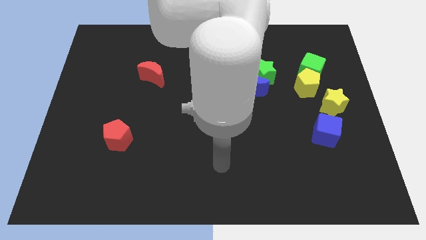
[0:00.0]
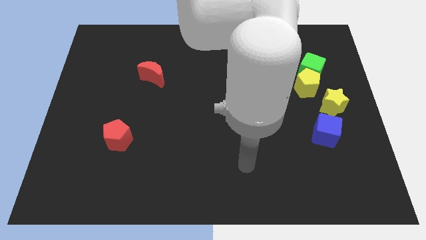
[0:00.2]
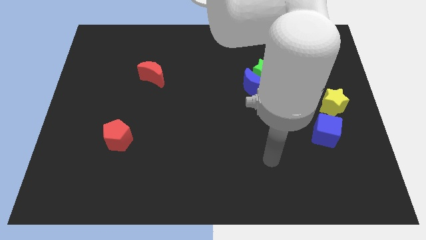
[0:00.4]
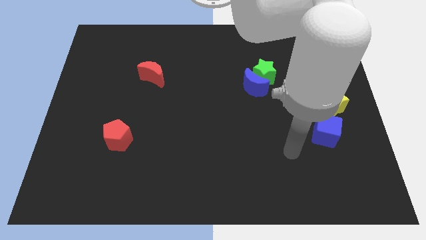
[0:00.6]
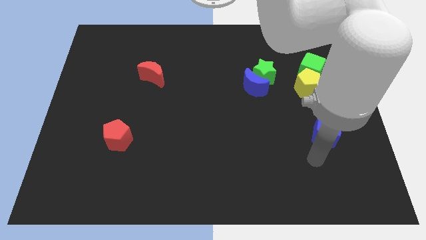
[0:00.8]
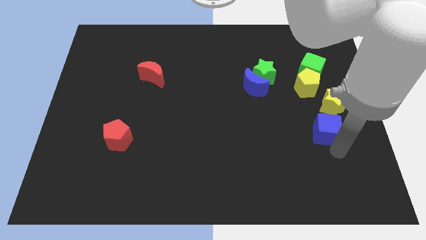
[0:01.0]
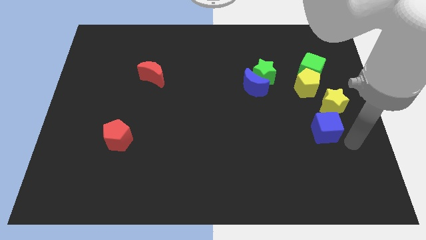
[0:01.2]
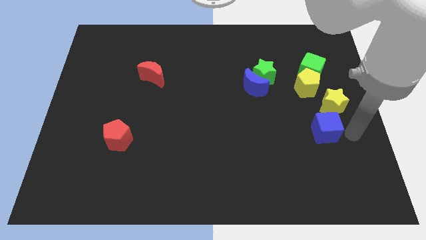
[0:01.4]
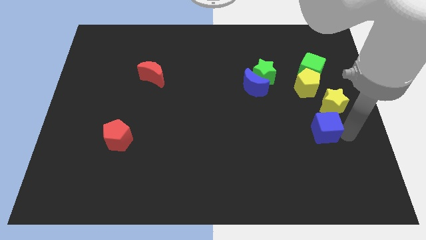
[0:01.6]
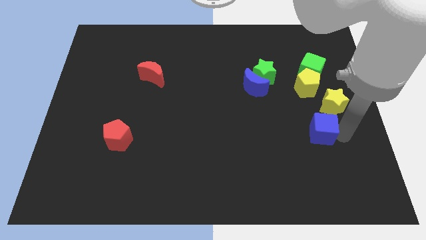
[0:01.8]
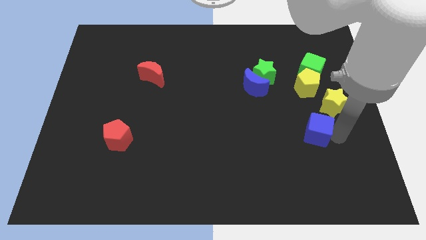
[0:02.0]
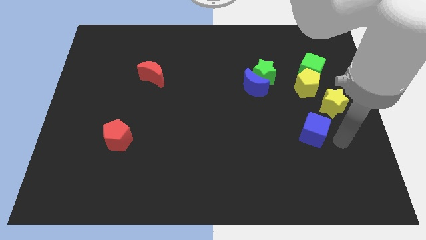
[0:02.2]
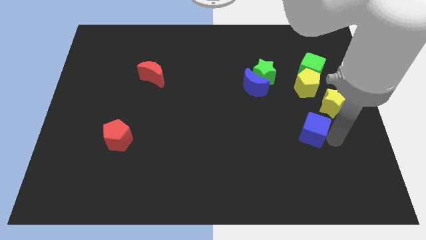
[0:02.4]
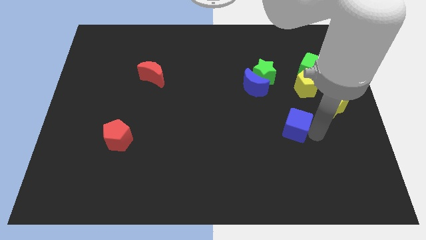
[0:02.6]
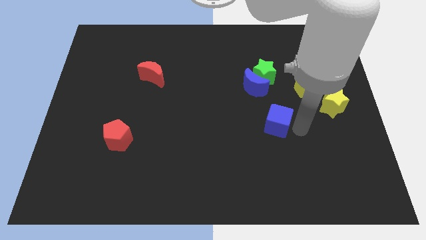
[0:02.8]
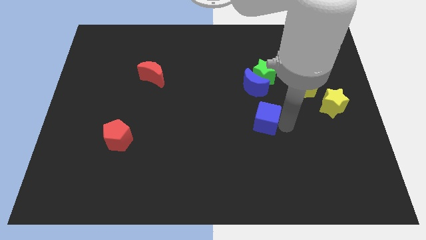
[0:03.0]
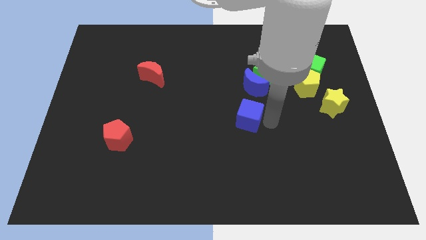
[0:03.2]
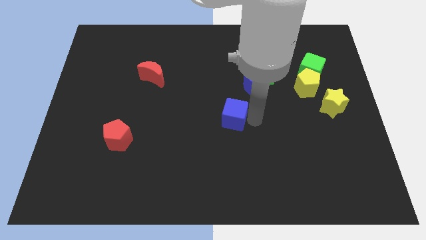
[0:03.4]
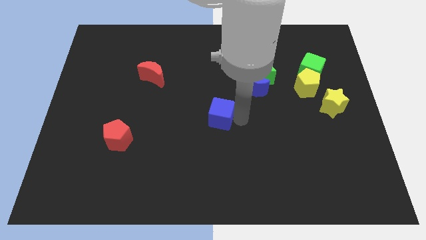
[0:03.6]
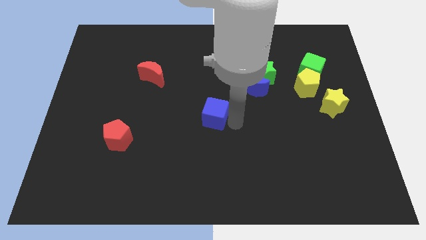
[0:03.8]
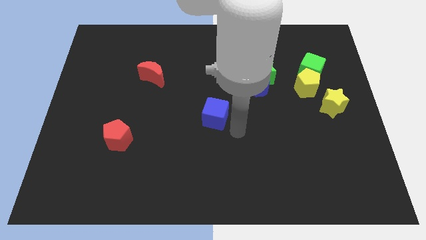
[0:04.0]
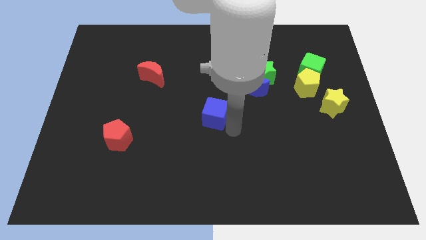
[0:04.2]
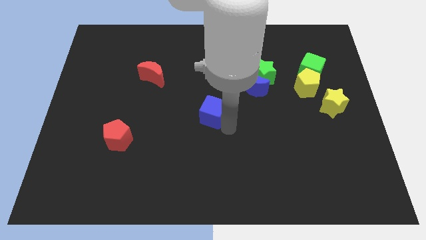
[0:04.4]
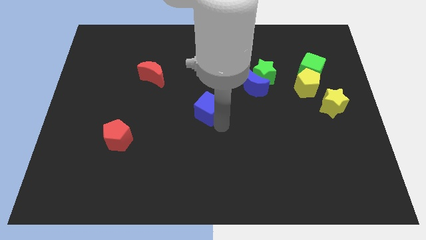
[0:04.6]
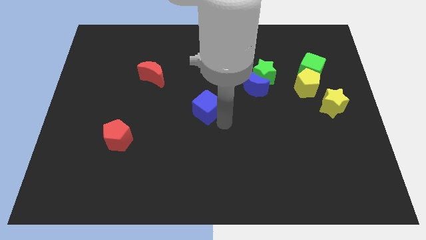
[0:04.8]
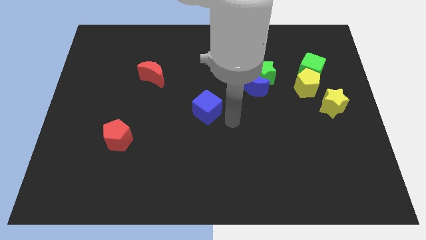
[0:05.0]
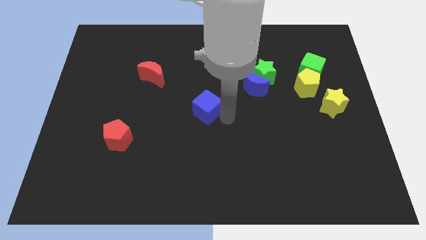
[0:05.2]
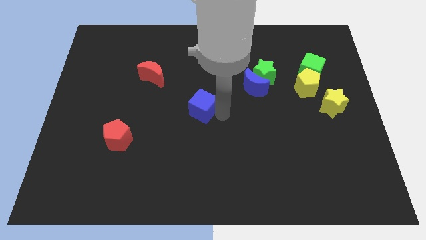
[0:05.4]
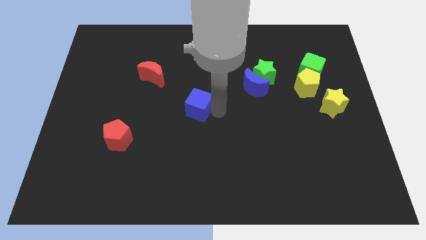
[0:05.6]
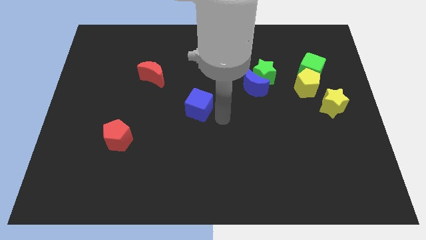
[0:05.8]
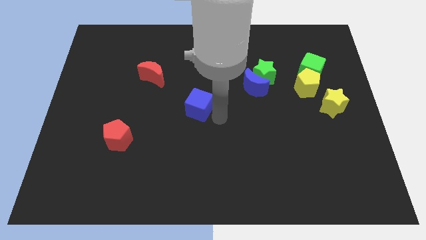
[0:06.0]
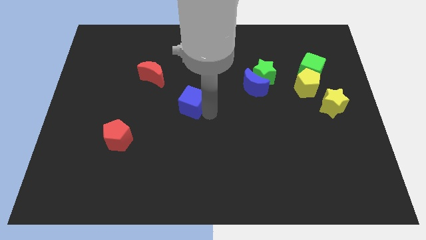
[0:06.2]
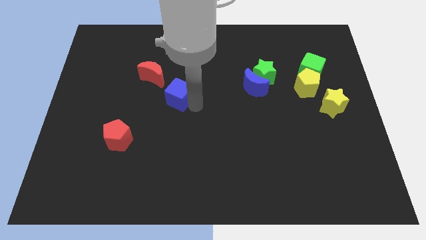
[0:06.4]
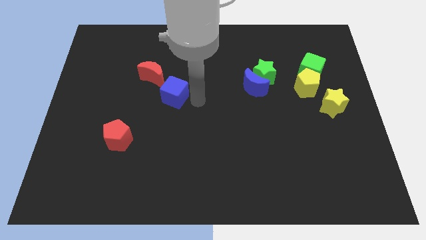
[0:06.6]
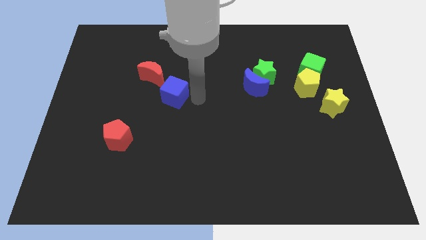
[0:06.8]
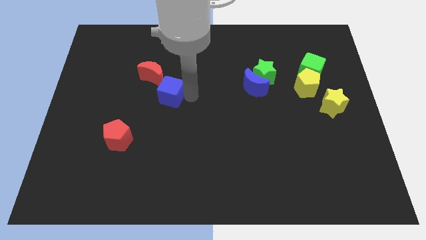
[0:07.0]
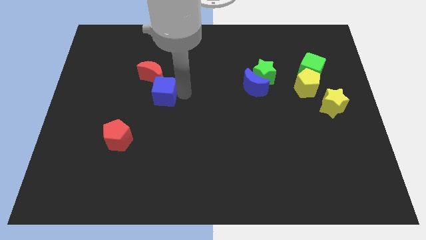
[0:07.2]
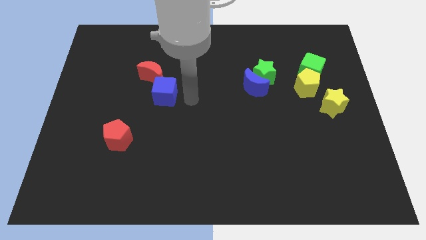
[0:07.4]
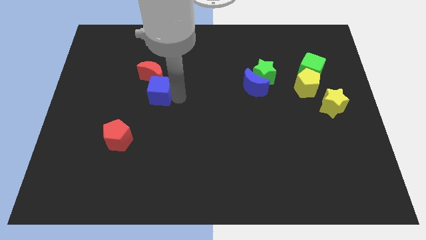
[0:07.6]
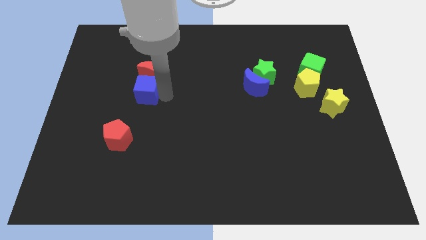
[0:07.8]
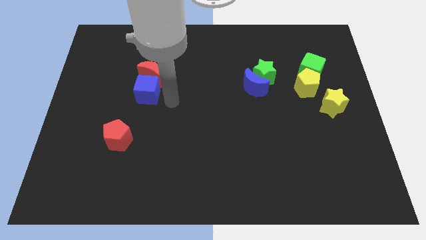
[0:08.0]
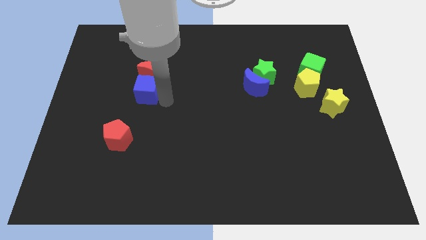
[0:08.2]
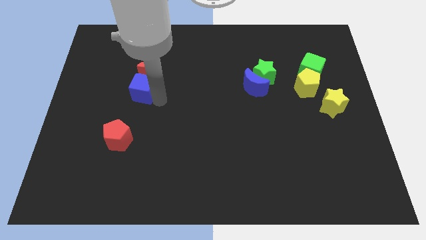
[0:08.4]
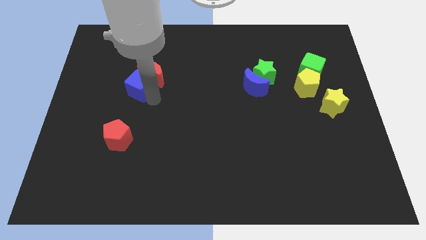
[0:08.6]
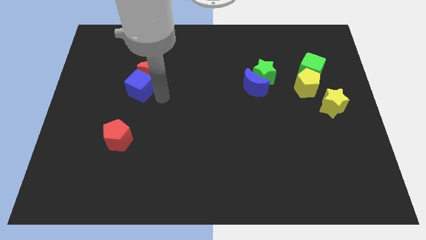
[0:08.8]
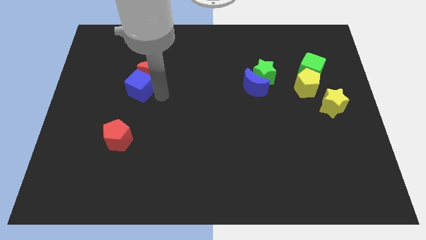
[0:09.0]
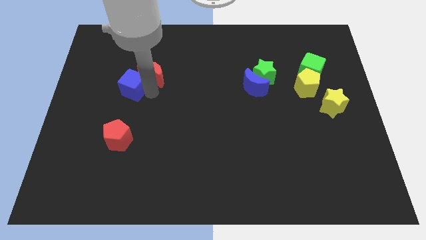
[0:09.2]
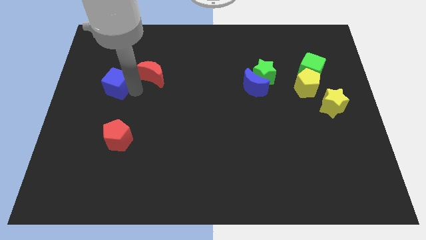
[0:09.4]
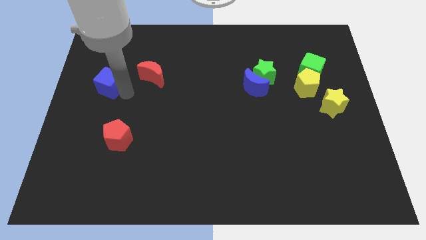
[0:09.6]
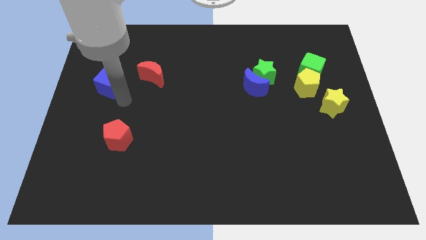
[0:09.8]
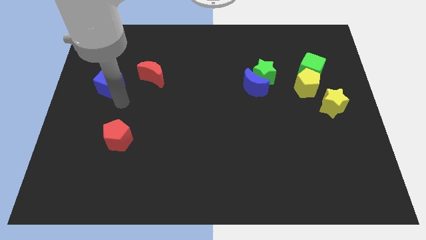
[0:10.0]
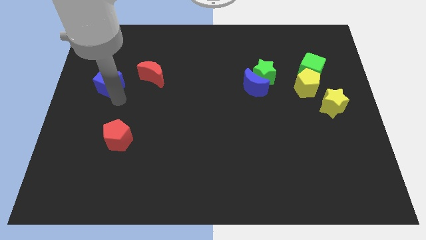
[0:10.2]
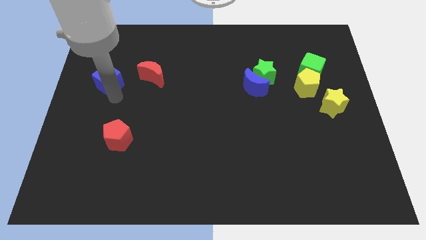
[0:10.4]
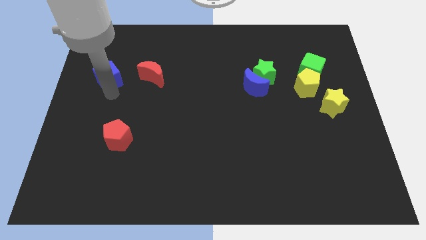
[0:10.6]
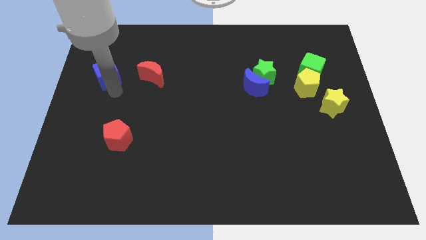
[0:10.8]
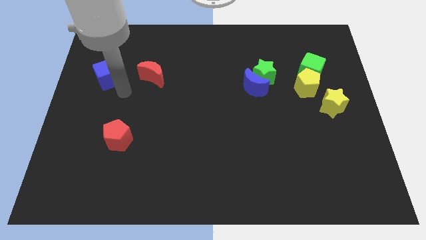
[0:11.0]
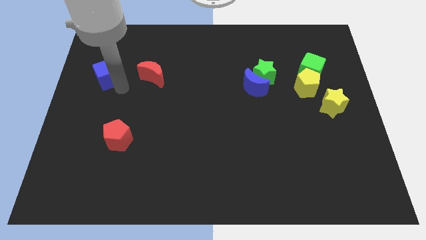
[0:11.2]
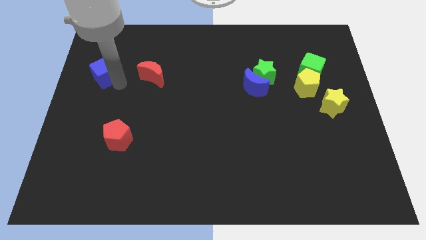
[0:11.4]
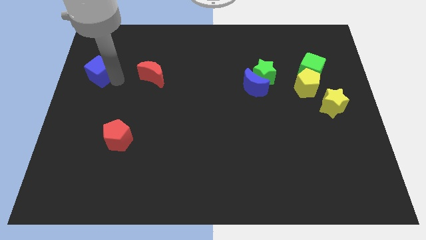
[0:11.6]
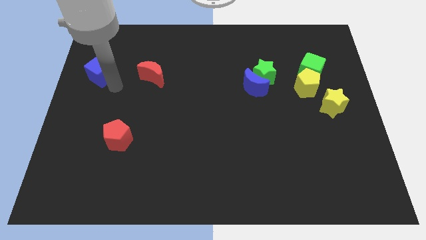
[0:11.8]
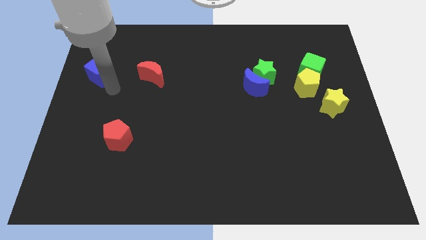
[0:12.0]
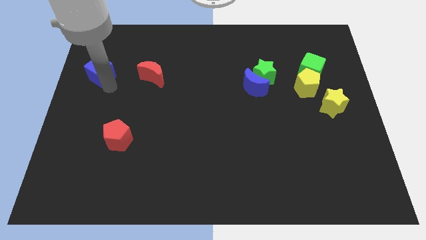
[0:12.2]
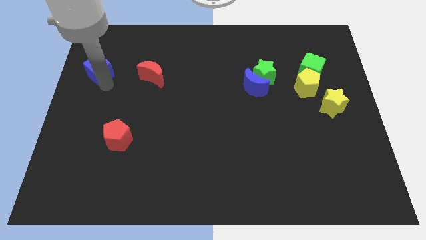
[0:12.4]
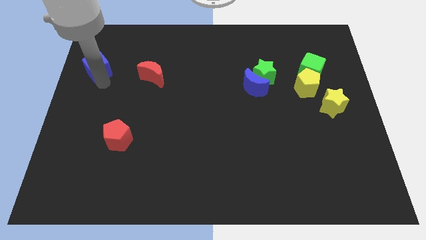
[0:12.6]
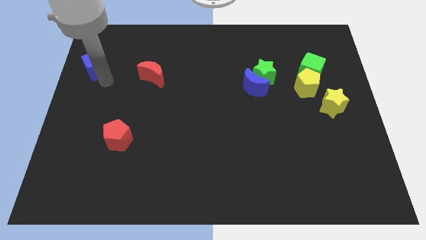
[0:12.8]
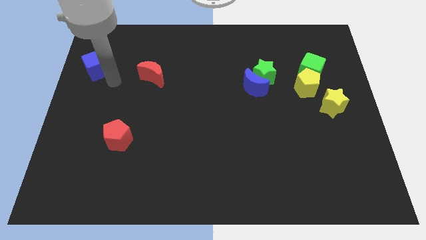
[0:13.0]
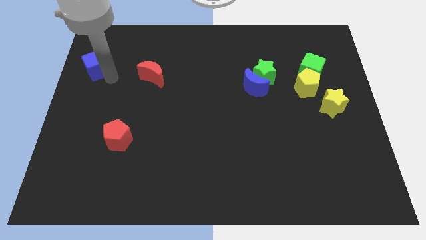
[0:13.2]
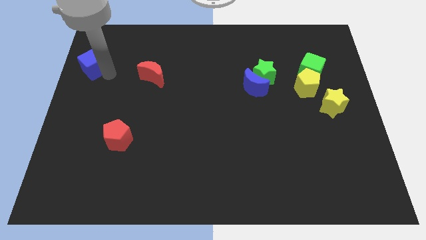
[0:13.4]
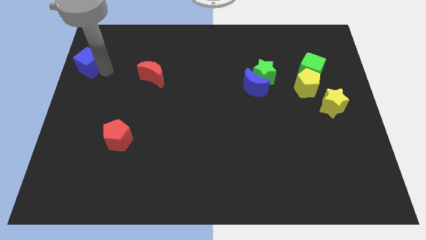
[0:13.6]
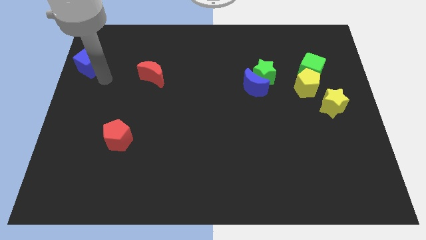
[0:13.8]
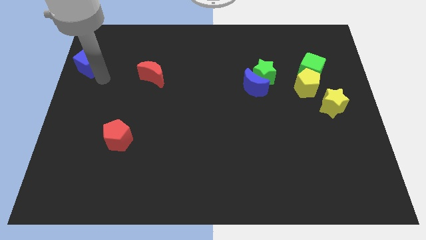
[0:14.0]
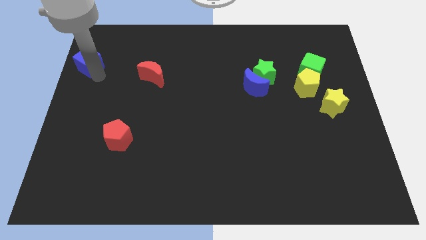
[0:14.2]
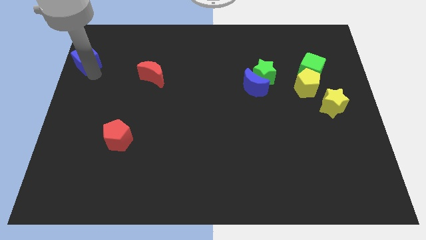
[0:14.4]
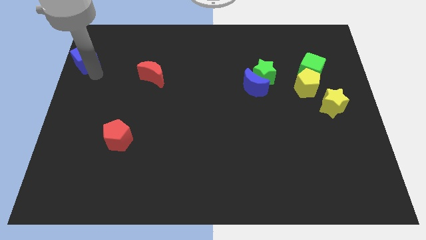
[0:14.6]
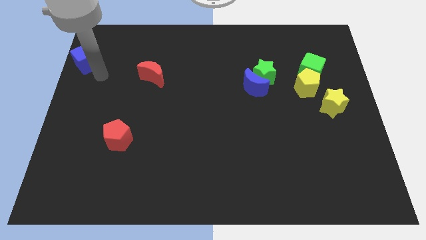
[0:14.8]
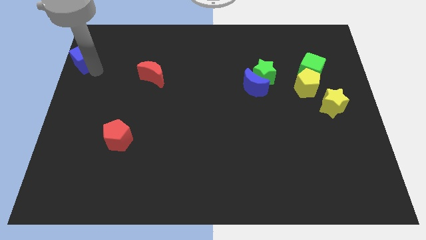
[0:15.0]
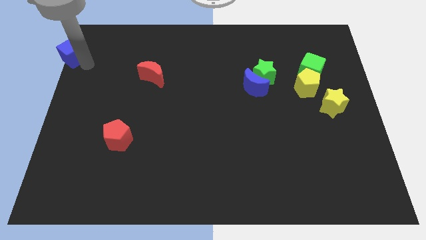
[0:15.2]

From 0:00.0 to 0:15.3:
push the blue cube to the top left
